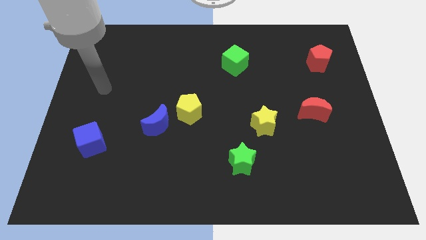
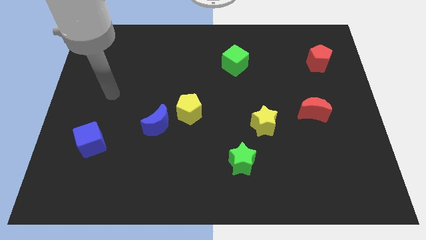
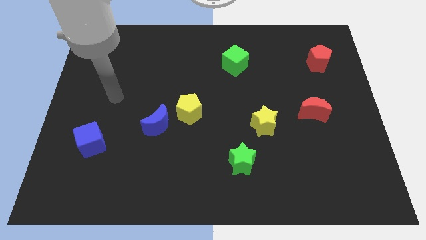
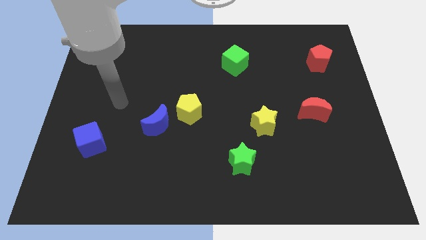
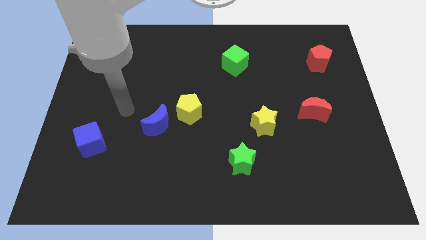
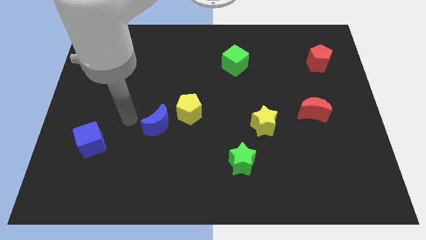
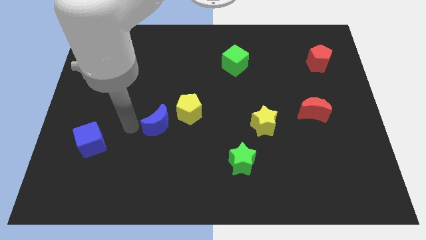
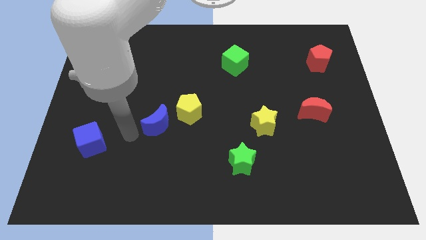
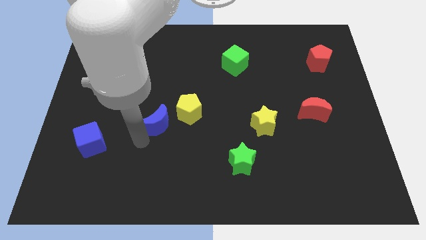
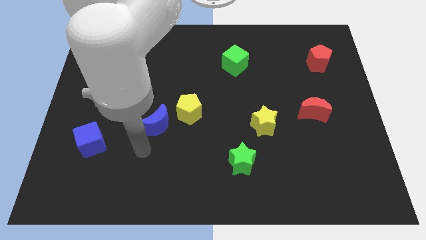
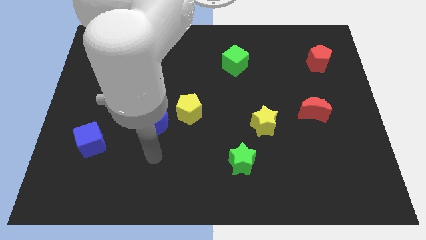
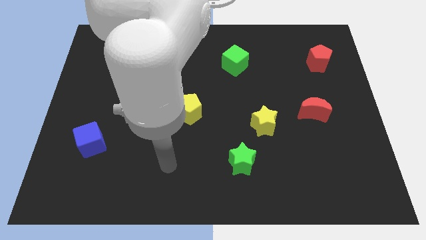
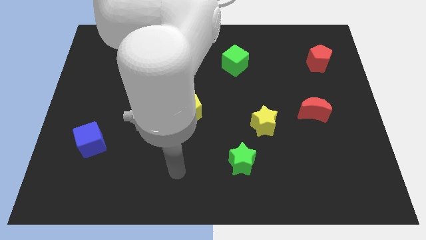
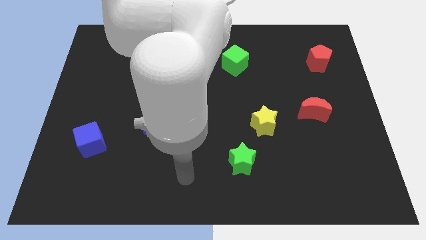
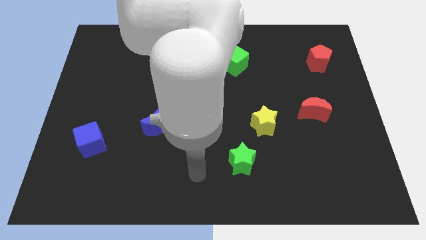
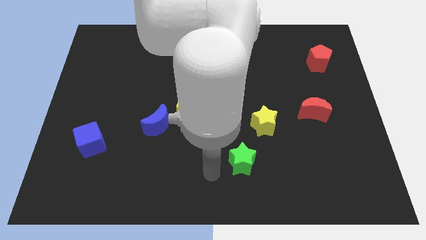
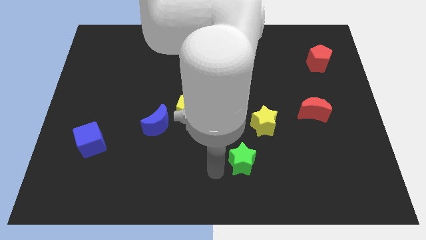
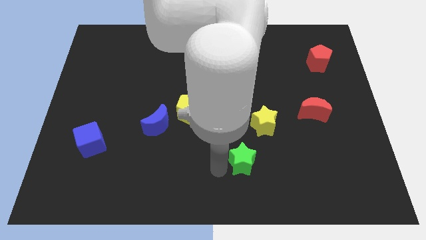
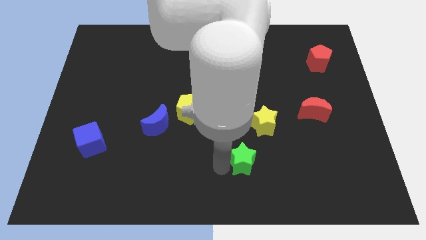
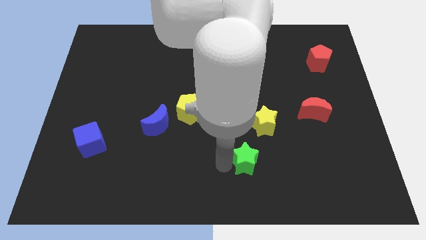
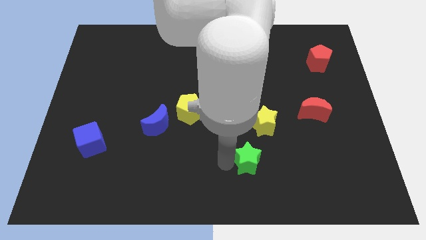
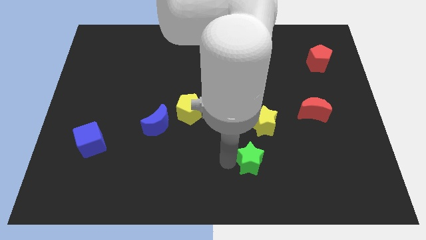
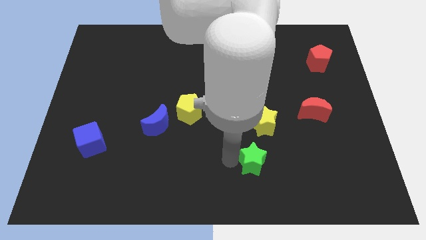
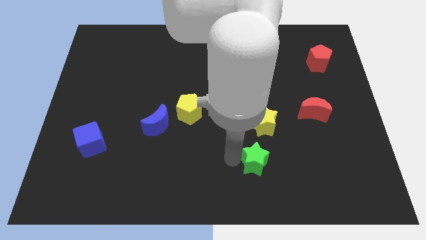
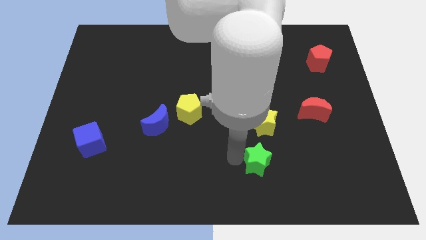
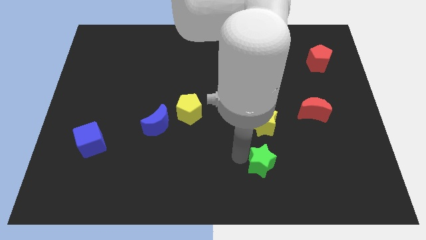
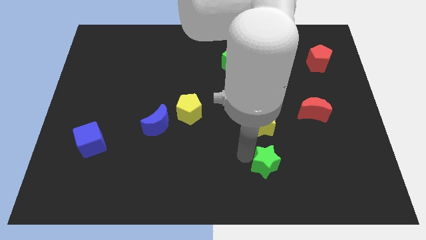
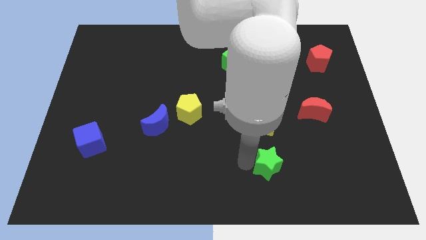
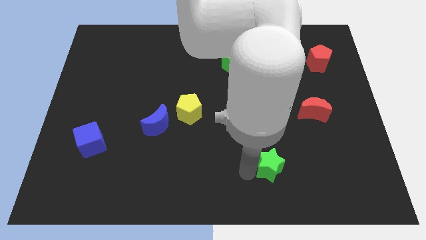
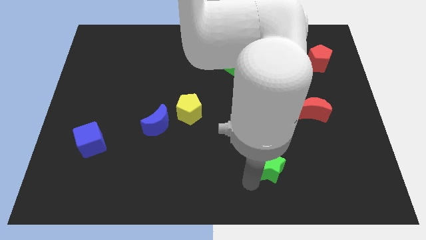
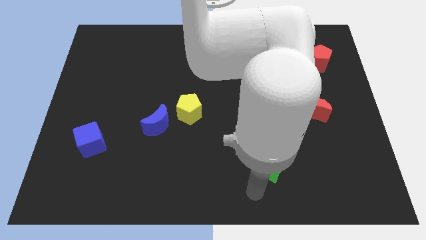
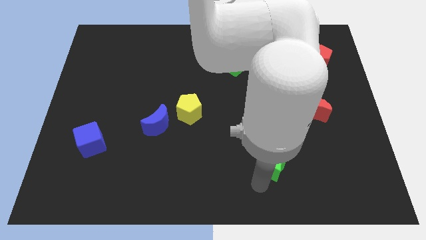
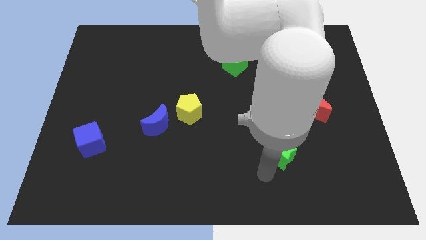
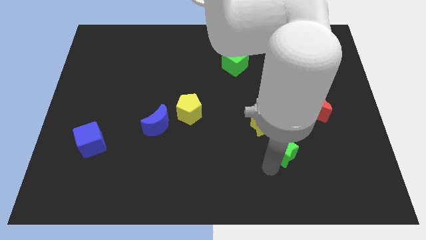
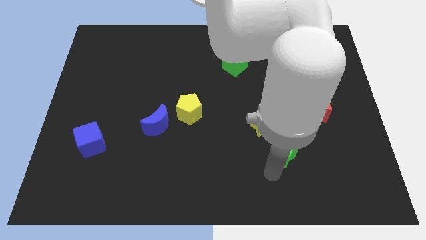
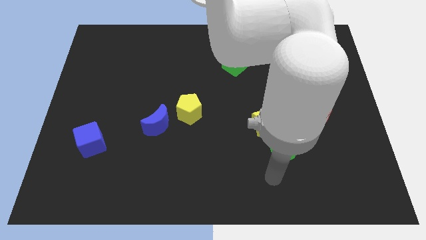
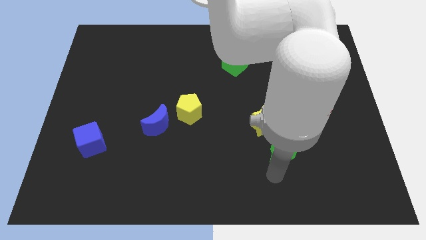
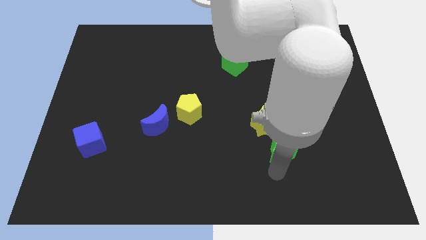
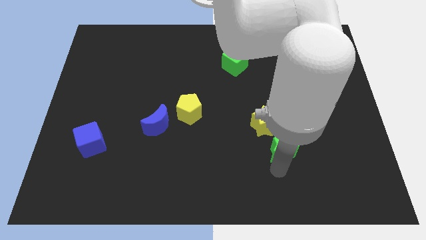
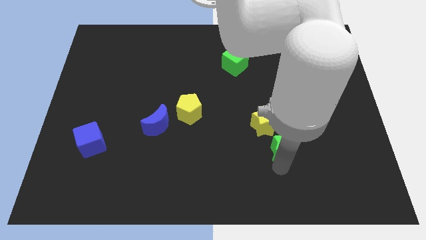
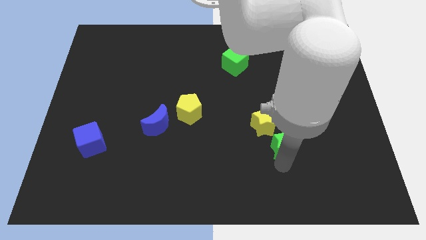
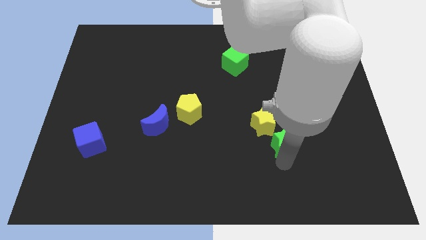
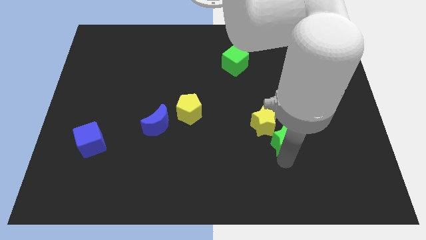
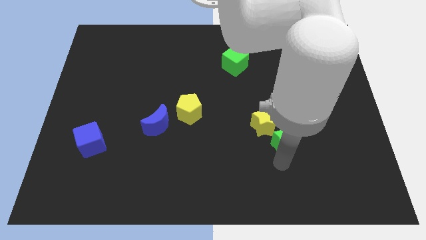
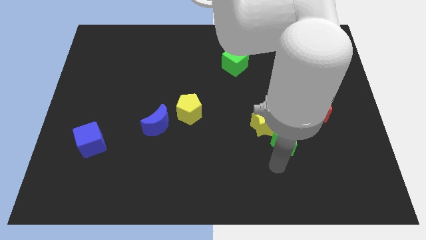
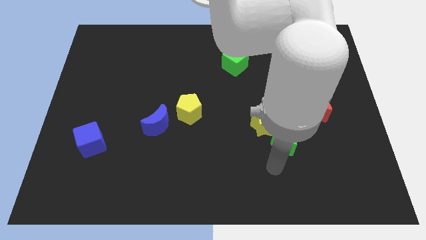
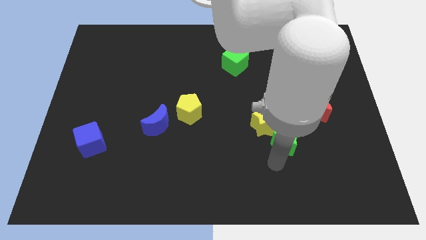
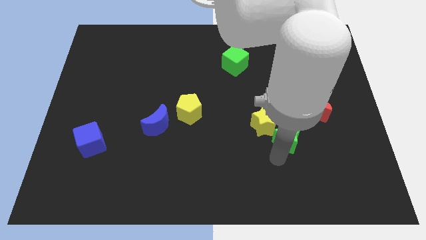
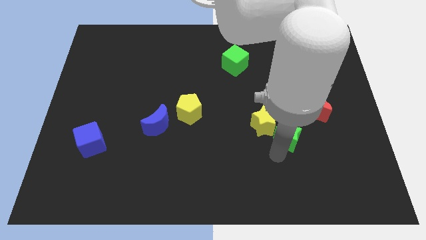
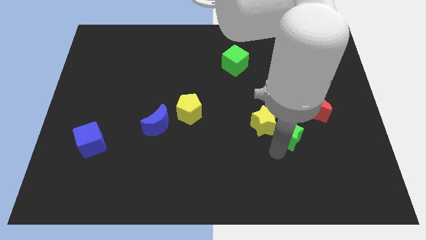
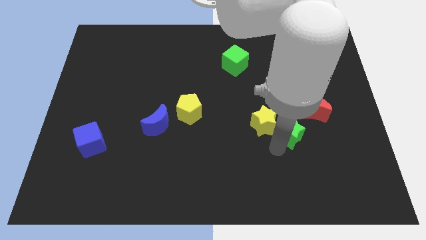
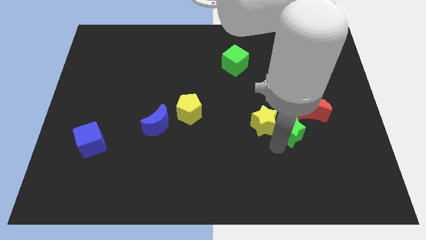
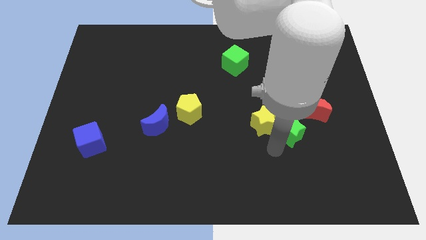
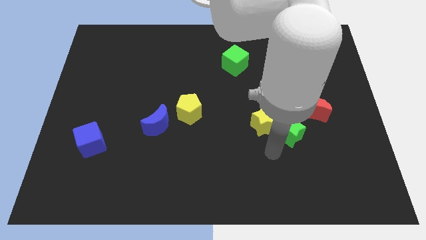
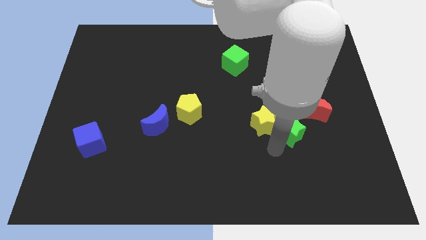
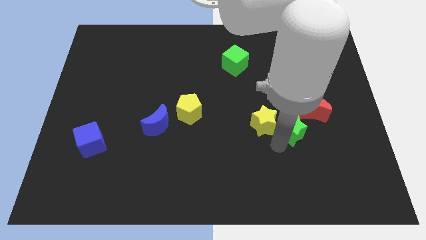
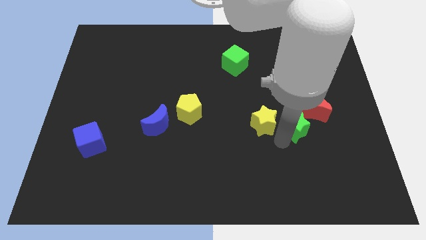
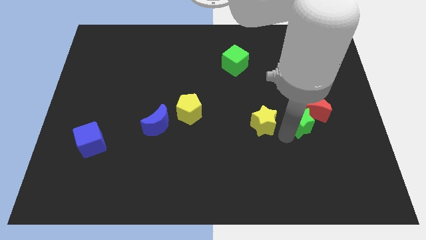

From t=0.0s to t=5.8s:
put the green star to the red moon

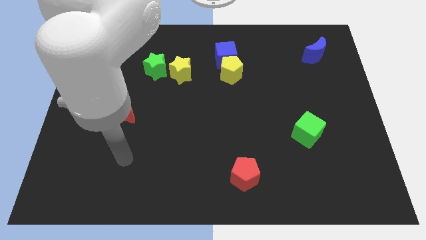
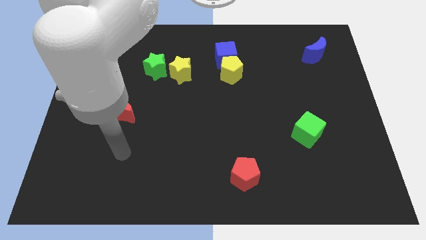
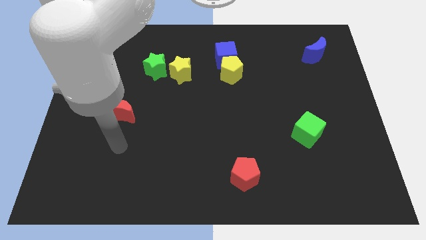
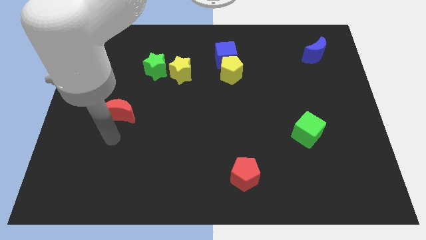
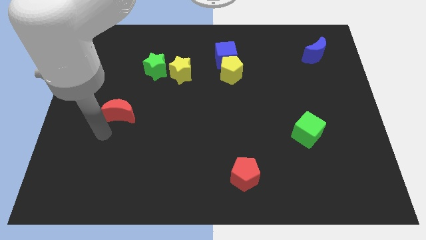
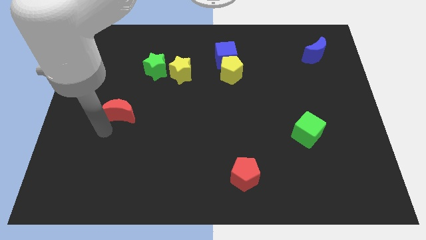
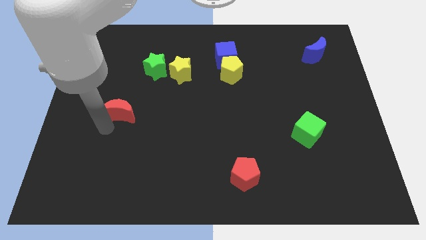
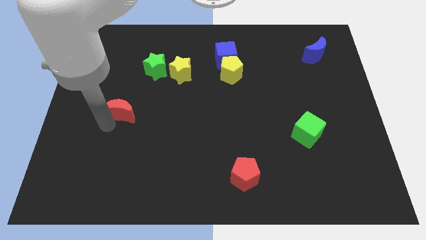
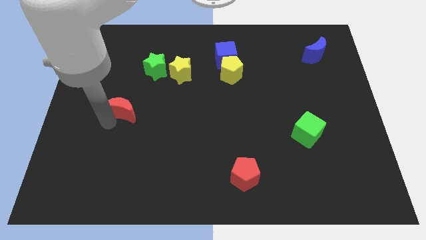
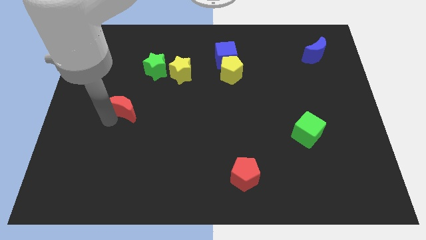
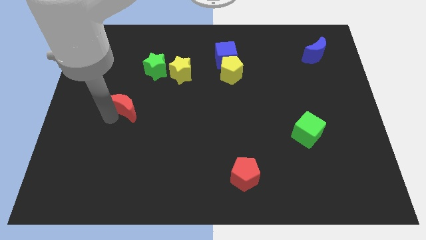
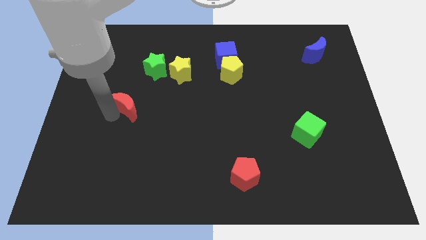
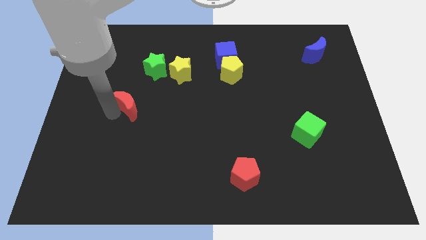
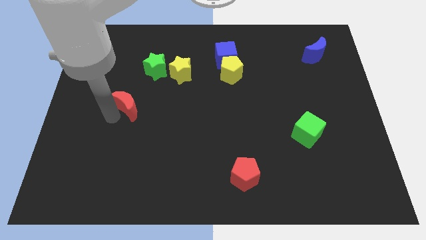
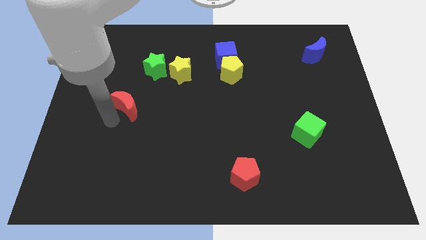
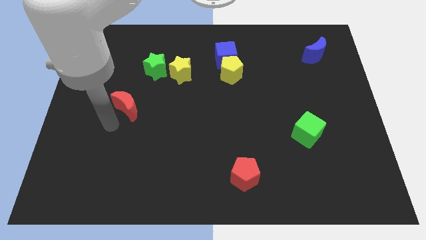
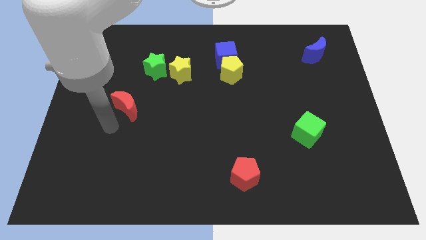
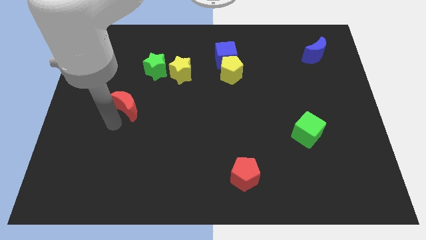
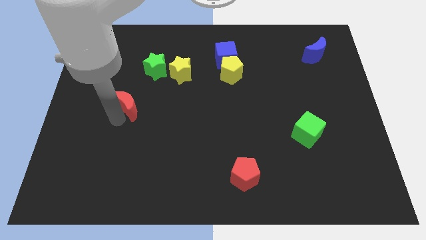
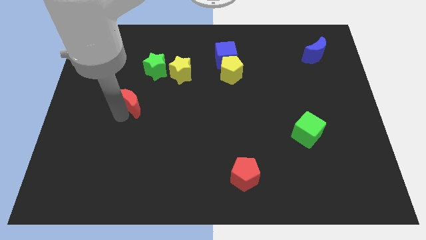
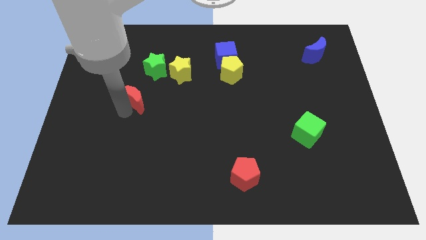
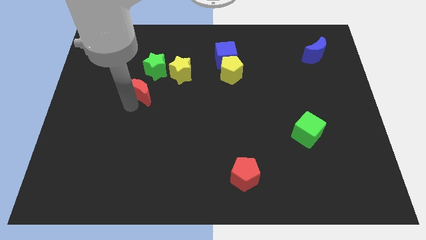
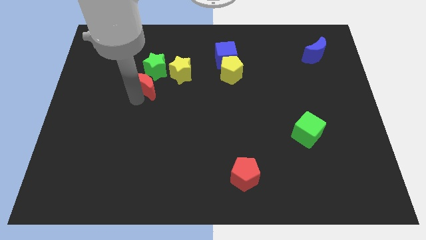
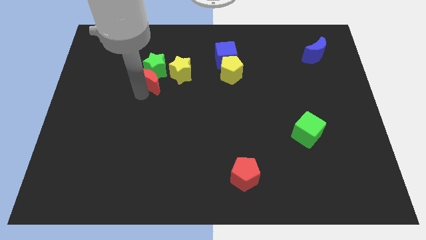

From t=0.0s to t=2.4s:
slide the red moon close to the green star
